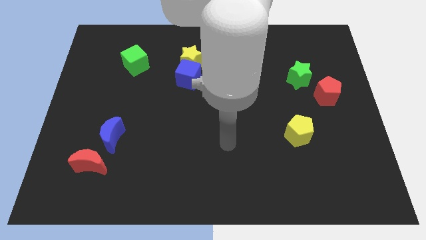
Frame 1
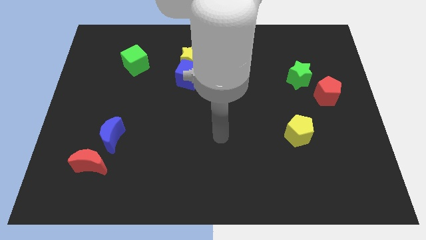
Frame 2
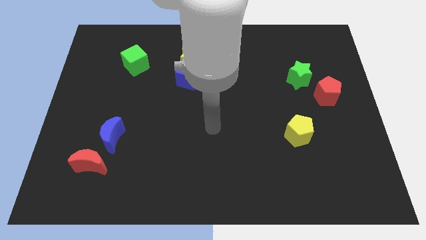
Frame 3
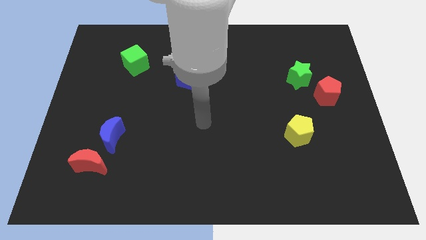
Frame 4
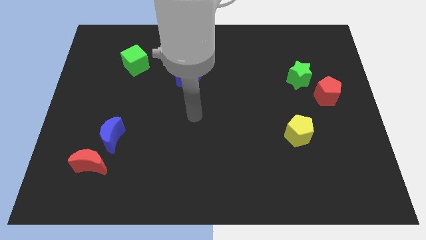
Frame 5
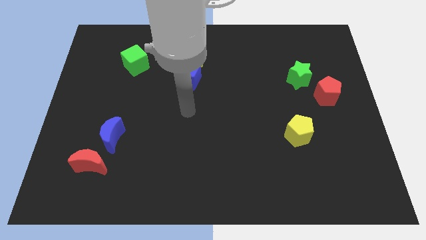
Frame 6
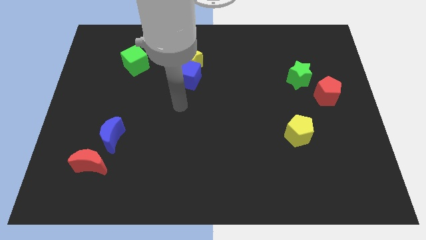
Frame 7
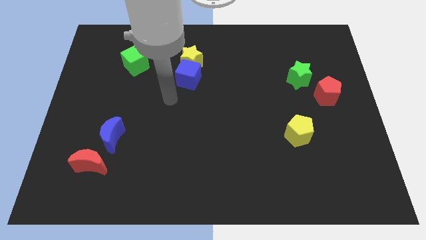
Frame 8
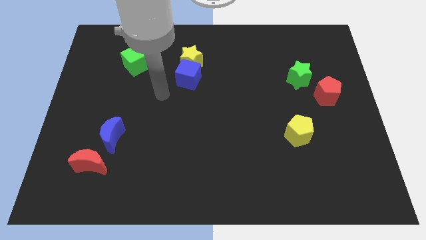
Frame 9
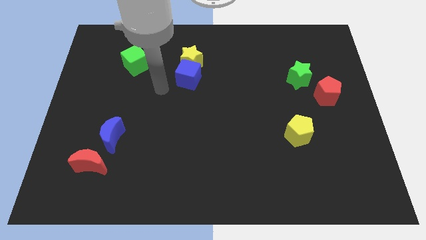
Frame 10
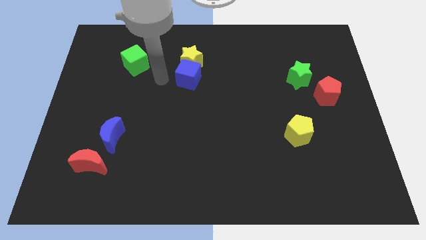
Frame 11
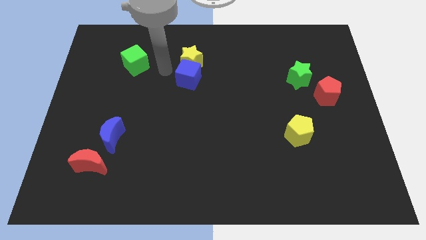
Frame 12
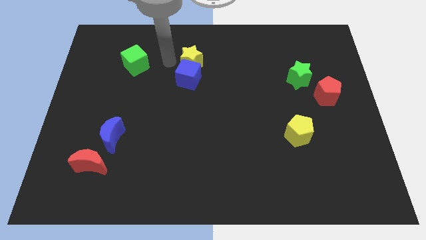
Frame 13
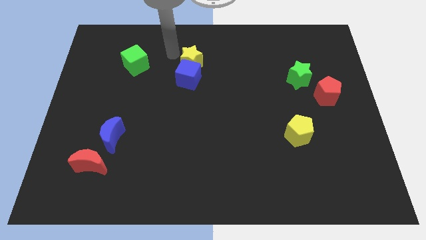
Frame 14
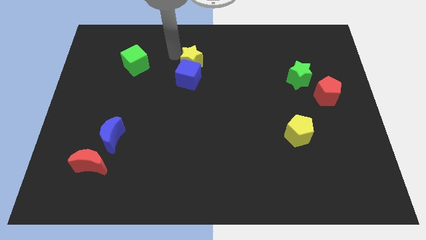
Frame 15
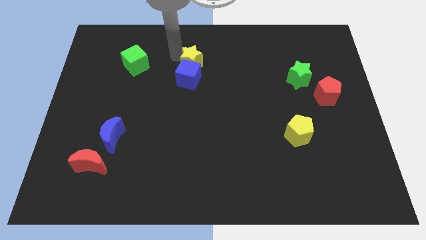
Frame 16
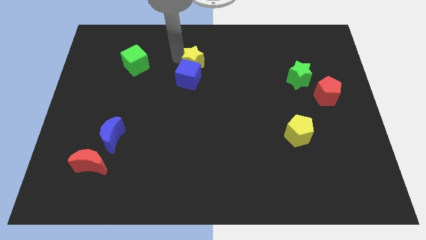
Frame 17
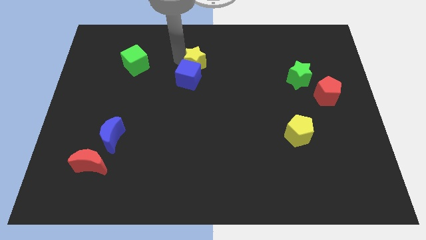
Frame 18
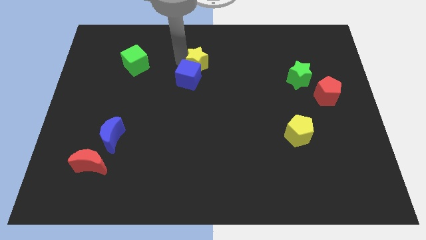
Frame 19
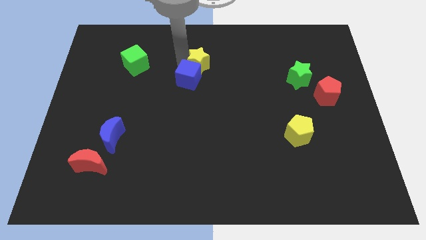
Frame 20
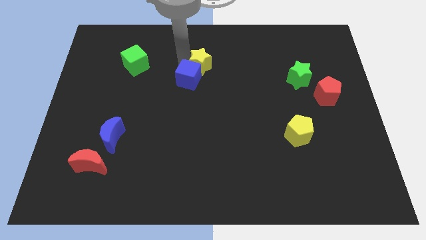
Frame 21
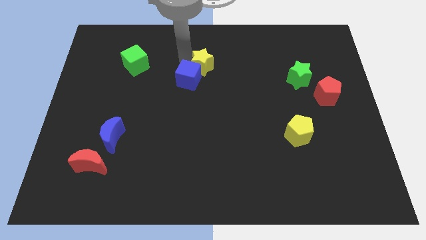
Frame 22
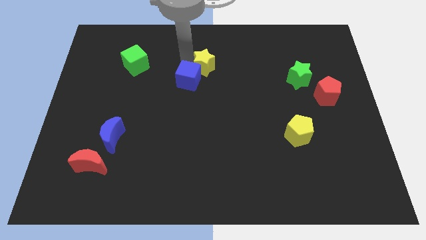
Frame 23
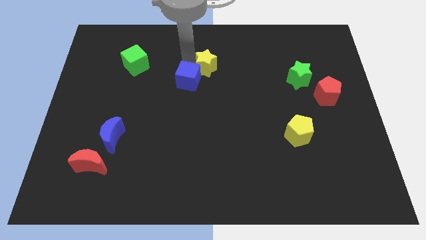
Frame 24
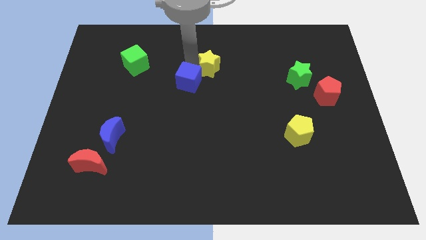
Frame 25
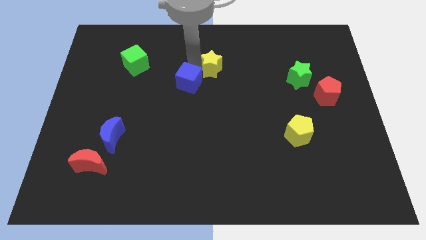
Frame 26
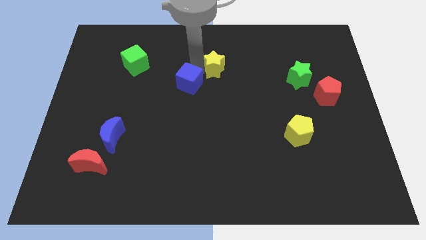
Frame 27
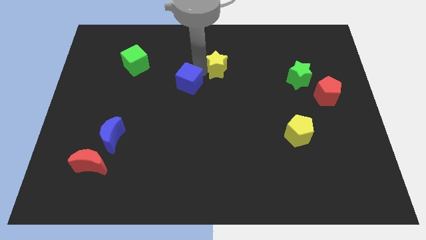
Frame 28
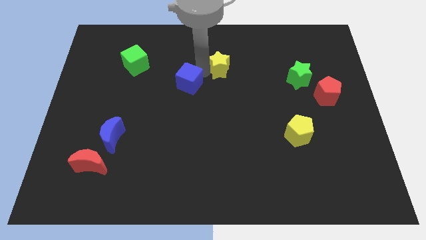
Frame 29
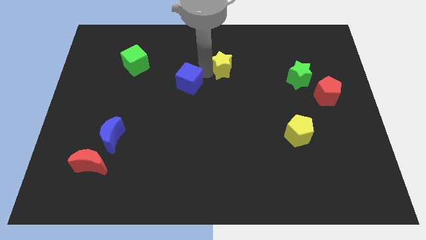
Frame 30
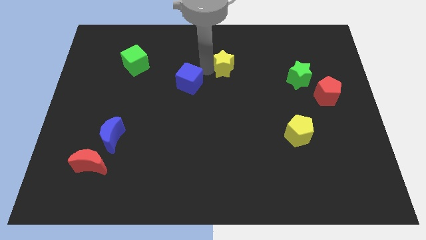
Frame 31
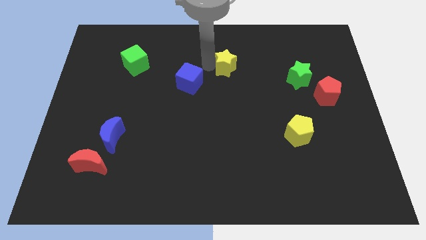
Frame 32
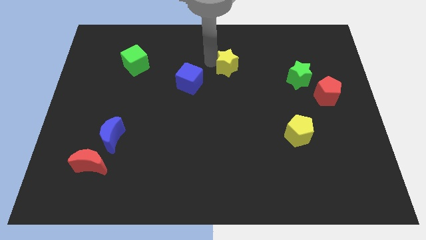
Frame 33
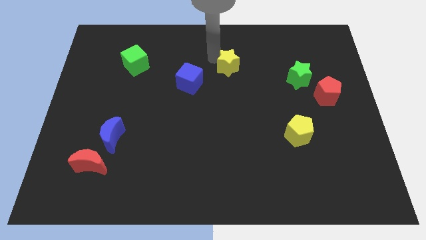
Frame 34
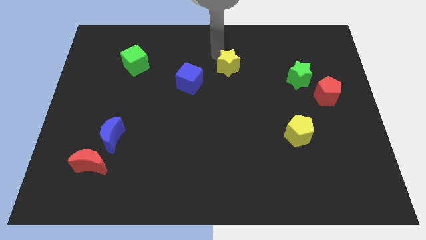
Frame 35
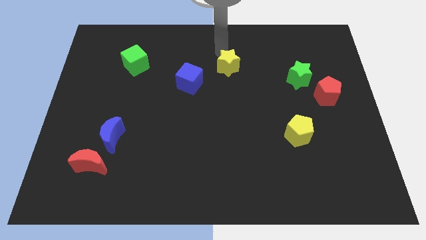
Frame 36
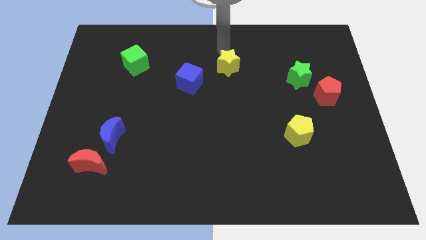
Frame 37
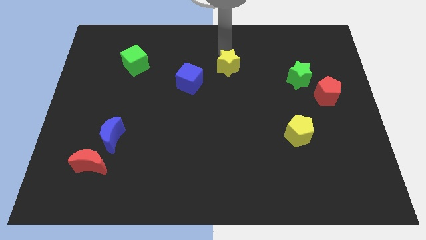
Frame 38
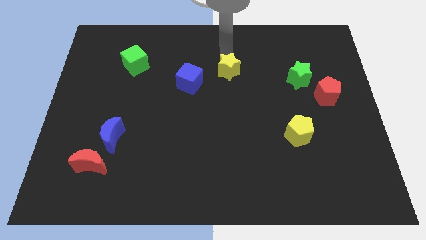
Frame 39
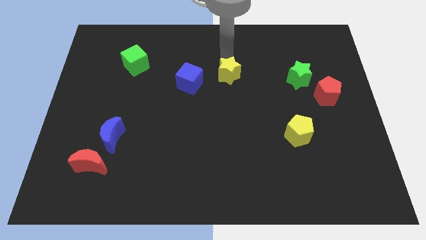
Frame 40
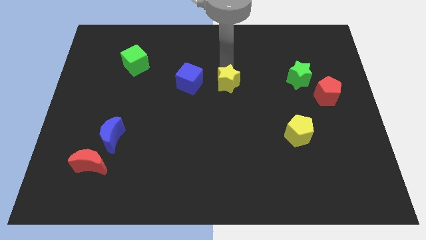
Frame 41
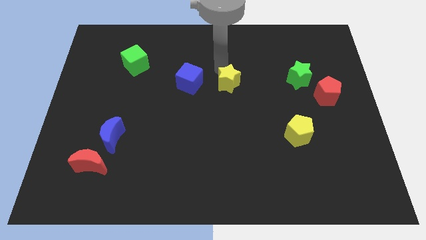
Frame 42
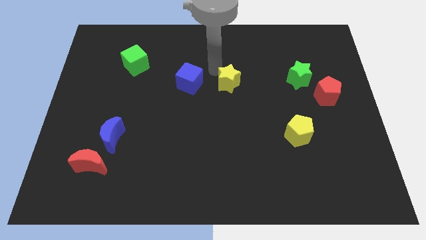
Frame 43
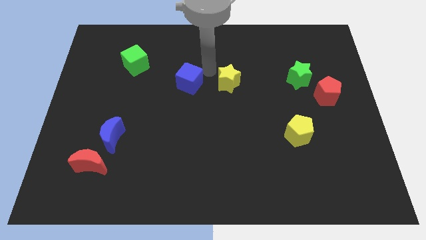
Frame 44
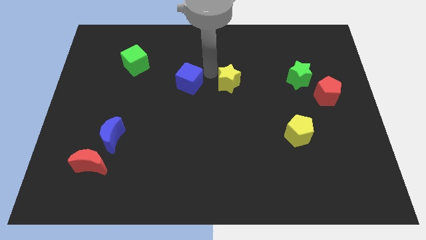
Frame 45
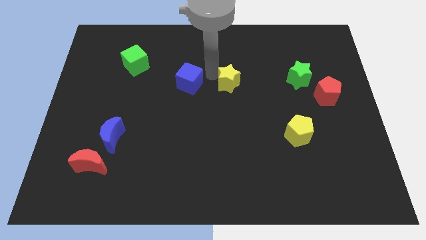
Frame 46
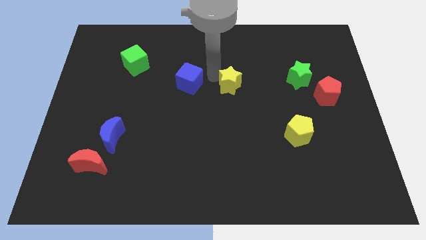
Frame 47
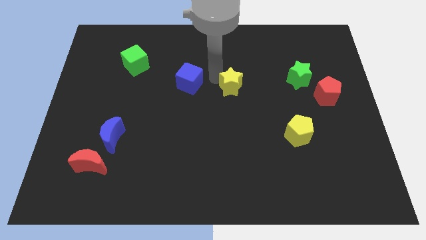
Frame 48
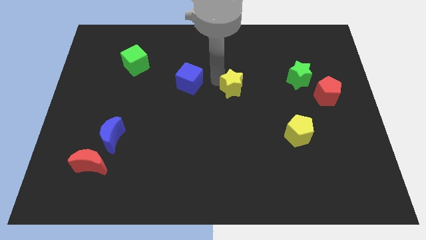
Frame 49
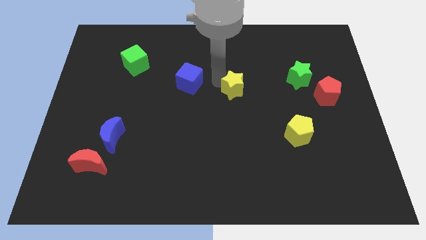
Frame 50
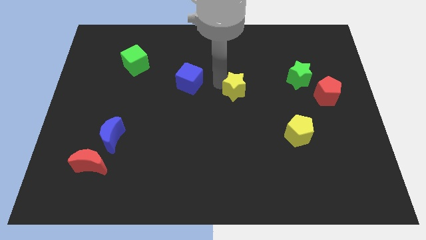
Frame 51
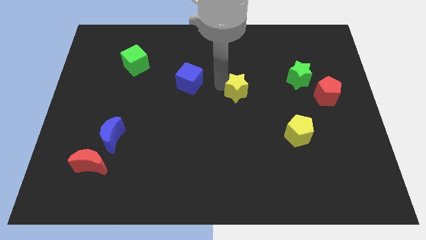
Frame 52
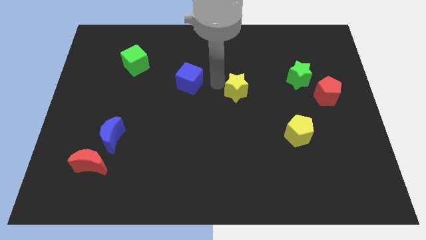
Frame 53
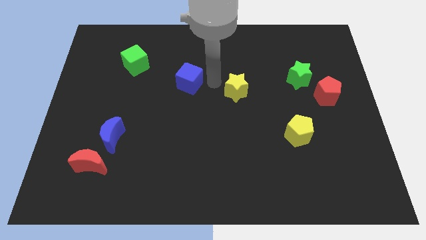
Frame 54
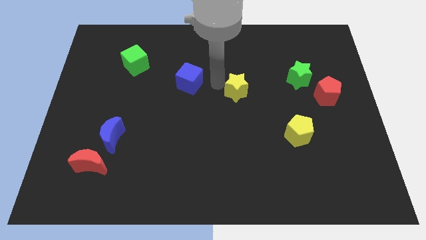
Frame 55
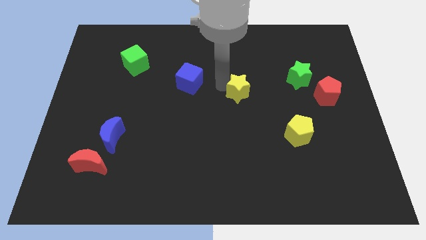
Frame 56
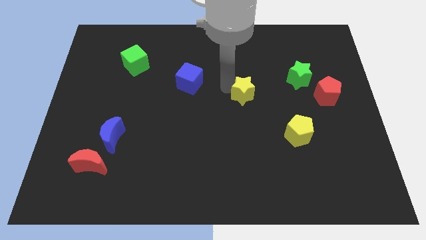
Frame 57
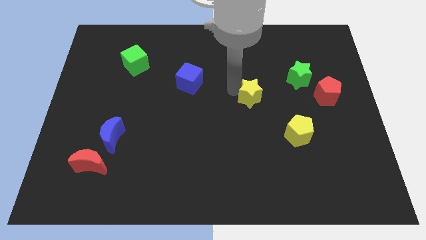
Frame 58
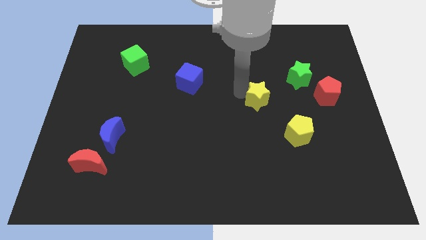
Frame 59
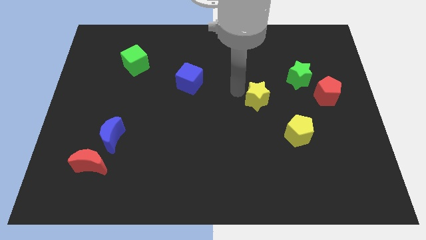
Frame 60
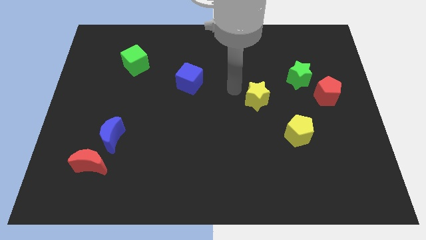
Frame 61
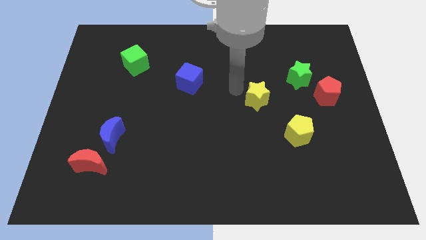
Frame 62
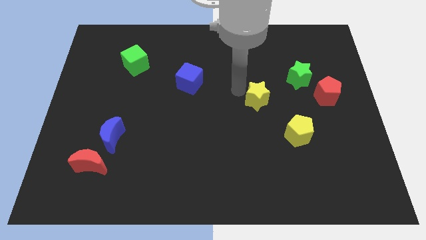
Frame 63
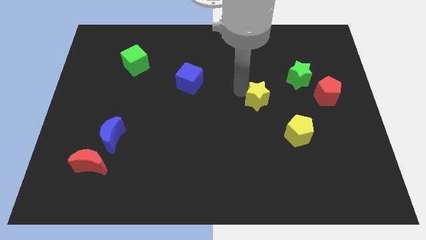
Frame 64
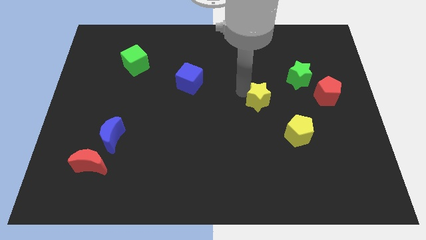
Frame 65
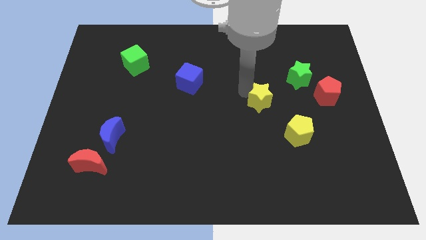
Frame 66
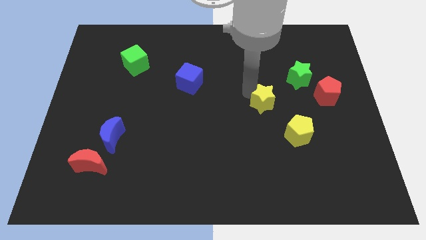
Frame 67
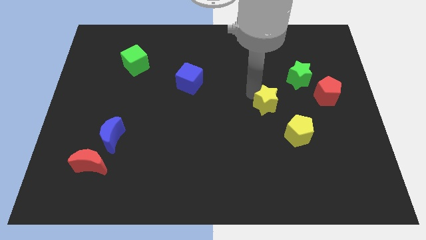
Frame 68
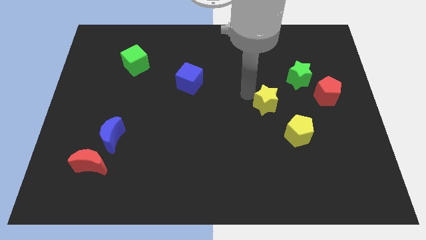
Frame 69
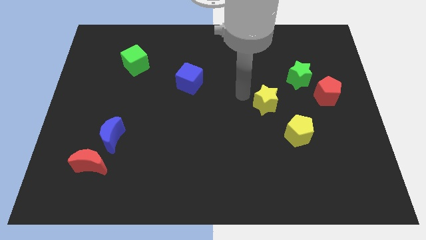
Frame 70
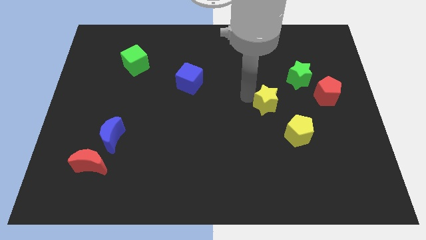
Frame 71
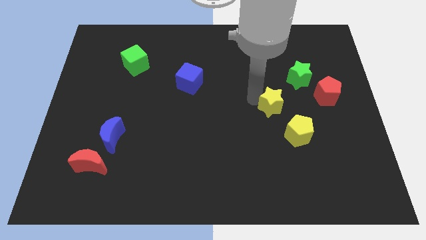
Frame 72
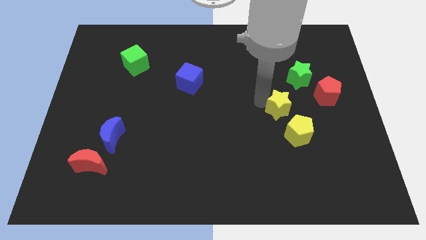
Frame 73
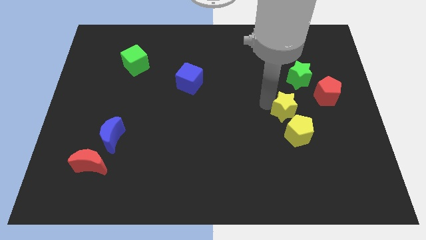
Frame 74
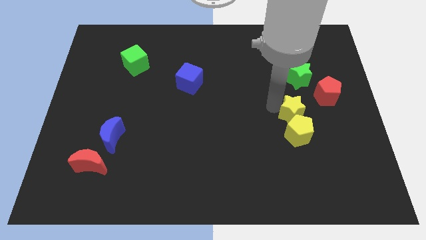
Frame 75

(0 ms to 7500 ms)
slide the yellow star diagonally up and to the right of the yellow pentagon

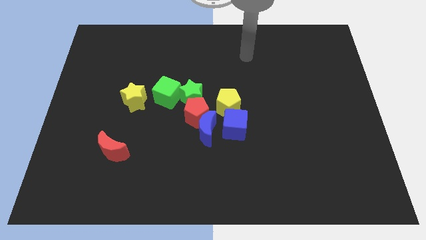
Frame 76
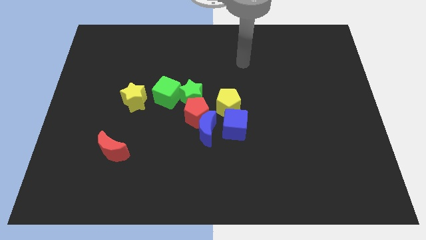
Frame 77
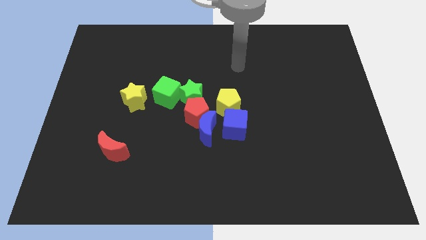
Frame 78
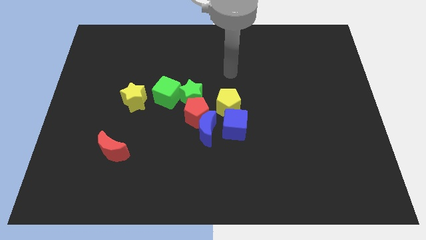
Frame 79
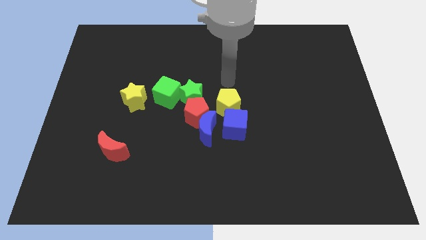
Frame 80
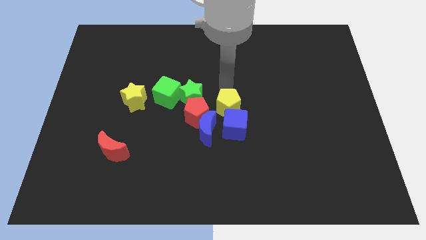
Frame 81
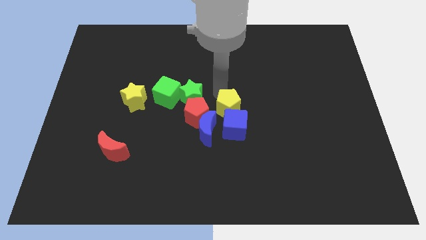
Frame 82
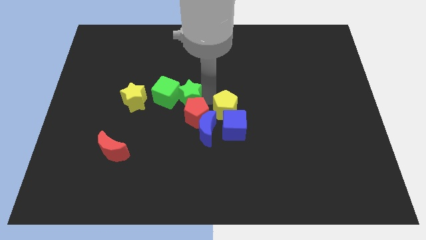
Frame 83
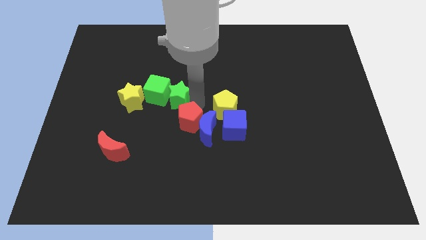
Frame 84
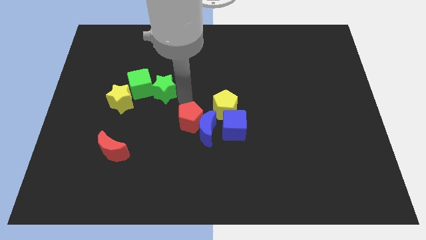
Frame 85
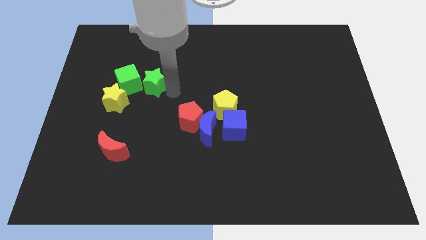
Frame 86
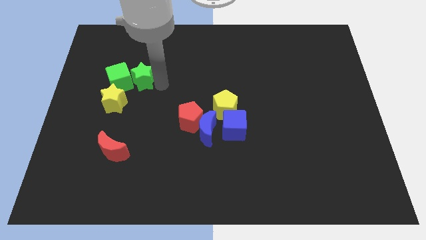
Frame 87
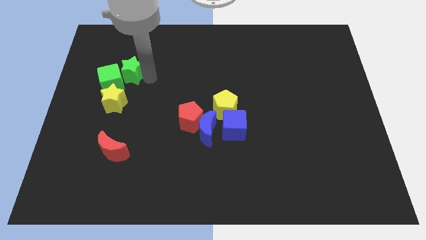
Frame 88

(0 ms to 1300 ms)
slide the green cube diagonally up and to the left of the yellow star
